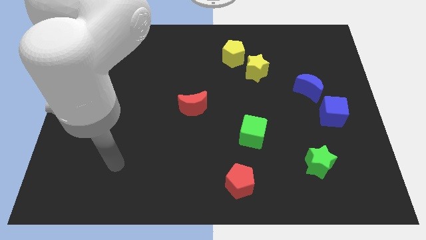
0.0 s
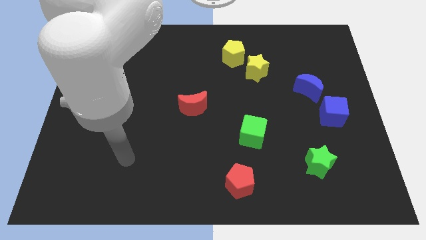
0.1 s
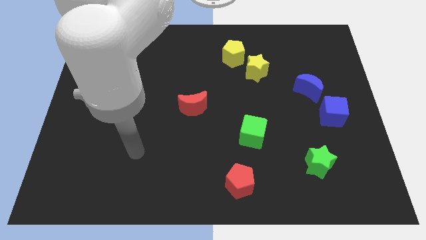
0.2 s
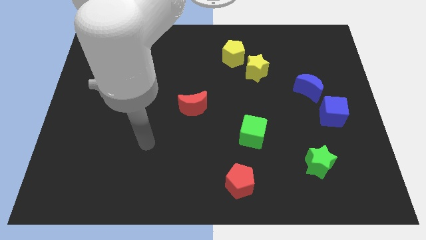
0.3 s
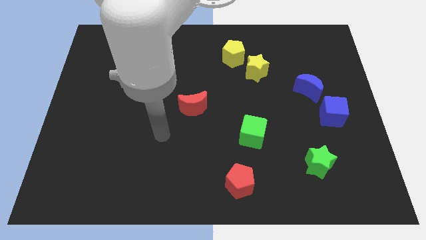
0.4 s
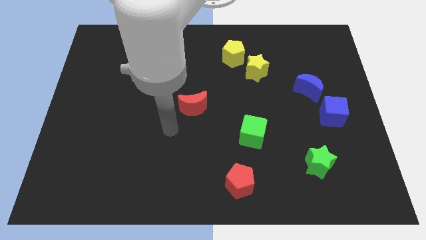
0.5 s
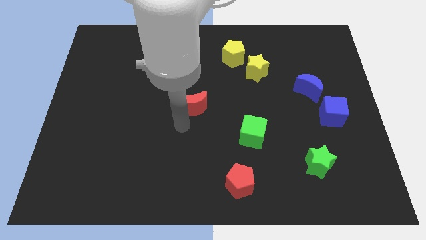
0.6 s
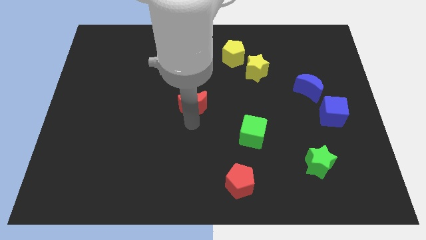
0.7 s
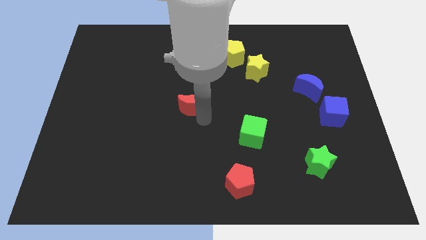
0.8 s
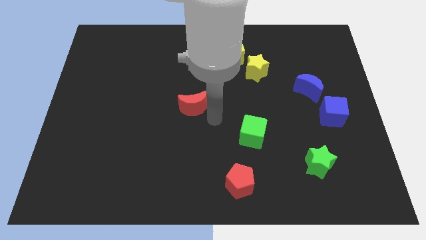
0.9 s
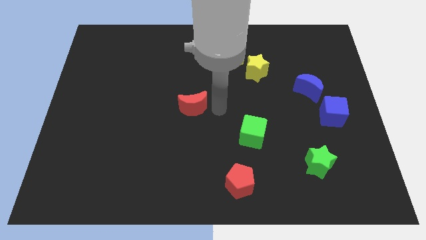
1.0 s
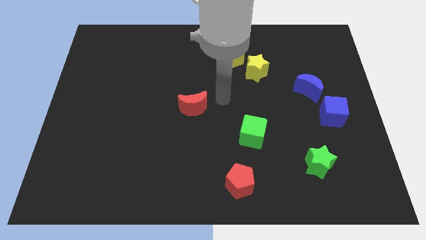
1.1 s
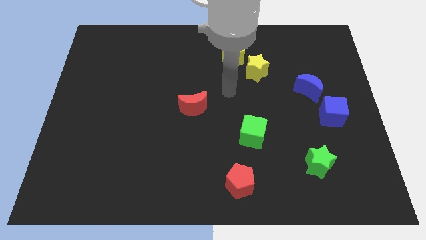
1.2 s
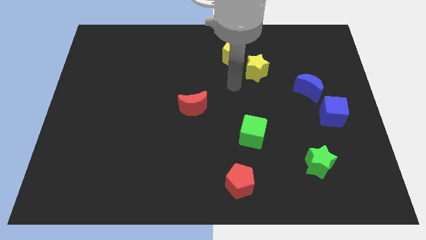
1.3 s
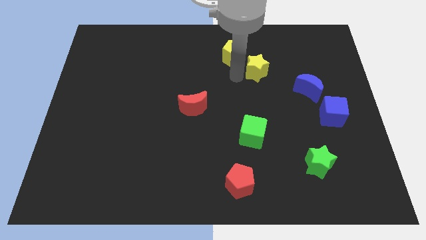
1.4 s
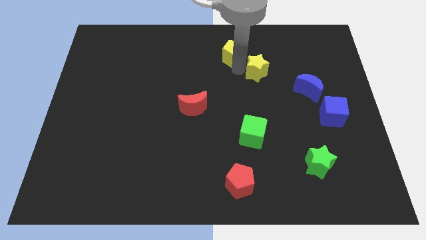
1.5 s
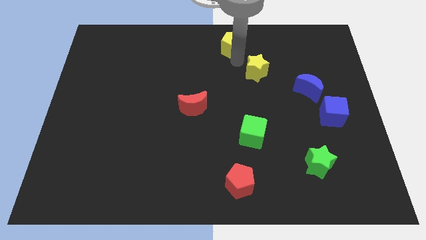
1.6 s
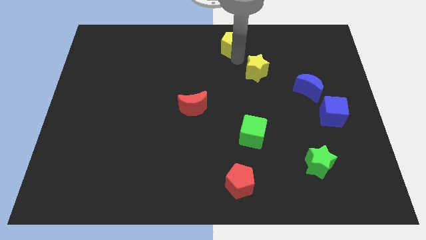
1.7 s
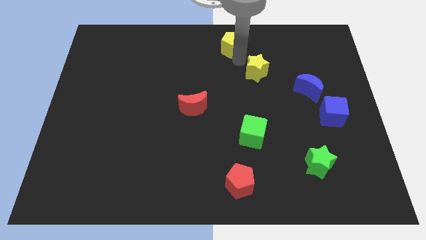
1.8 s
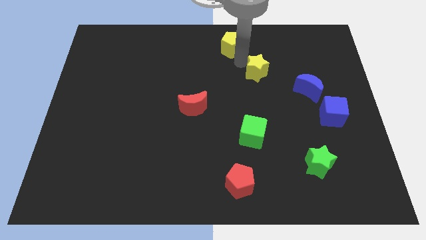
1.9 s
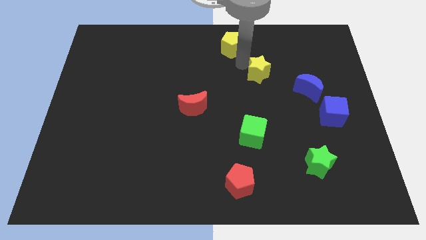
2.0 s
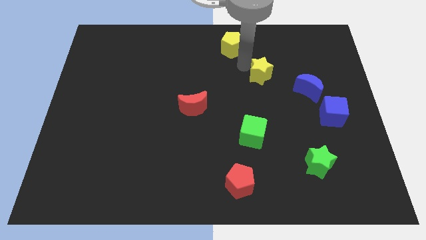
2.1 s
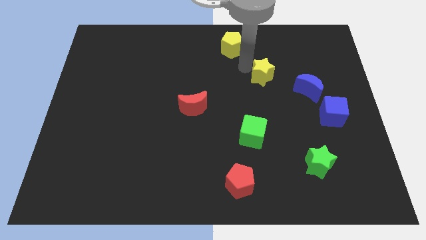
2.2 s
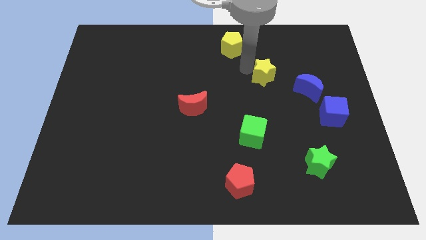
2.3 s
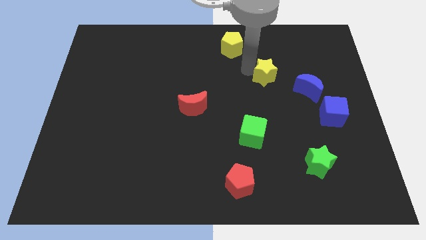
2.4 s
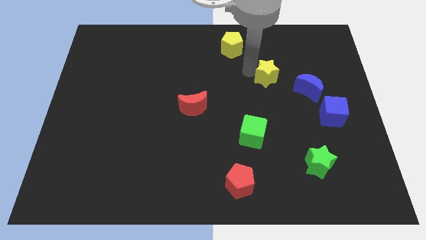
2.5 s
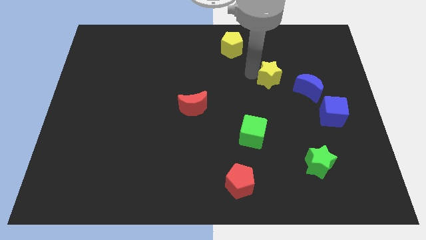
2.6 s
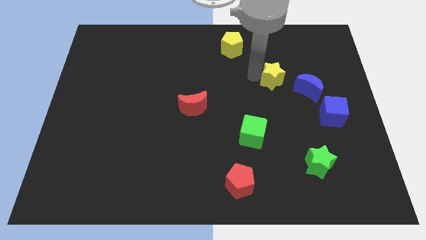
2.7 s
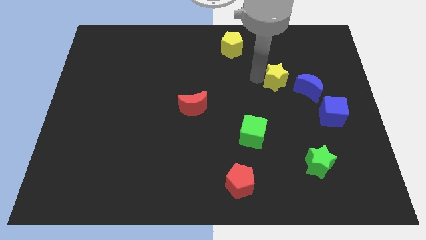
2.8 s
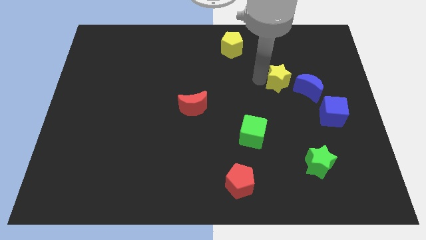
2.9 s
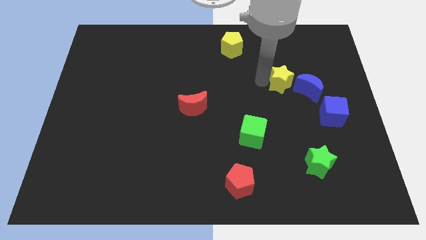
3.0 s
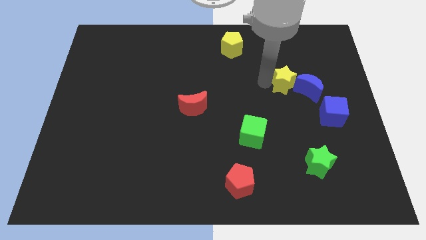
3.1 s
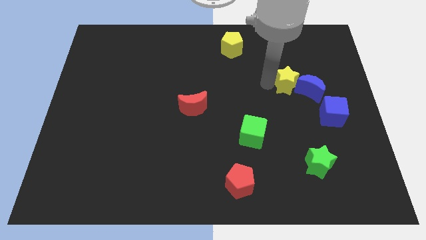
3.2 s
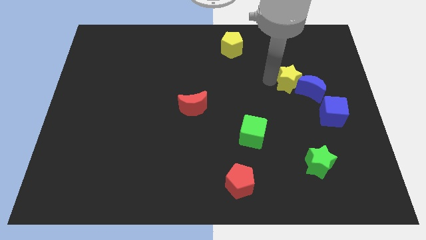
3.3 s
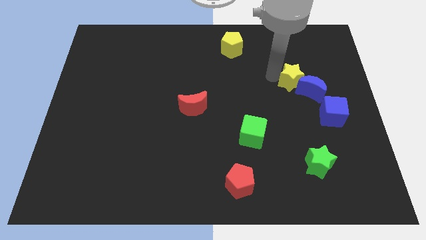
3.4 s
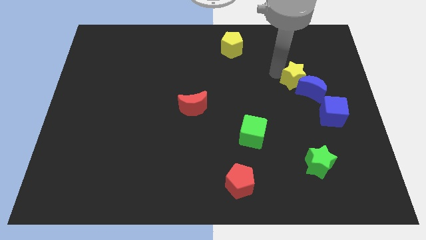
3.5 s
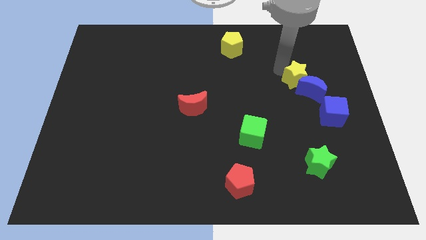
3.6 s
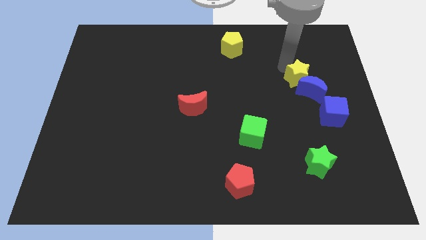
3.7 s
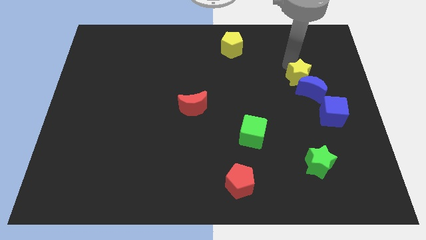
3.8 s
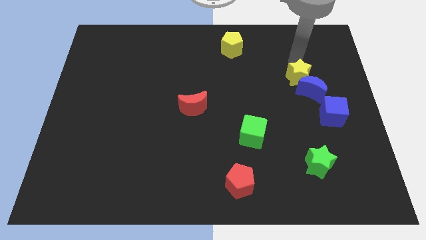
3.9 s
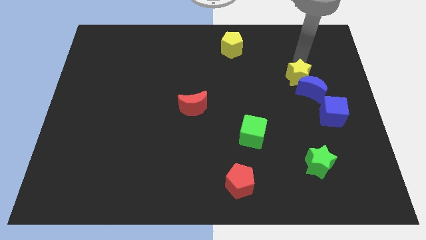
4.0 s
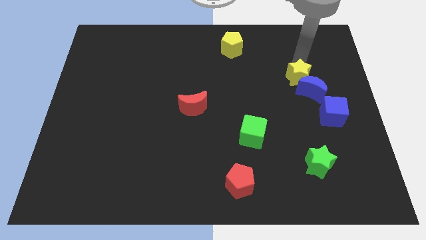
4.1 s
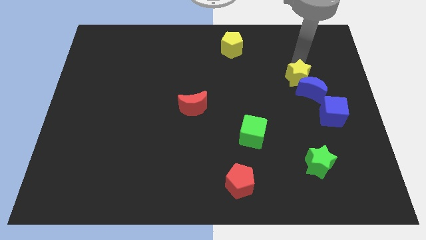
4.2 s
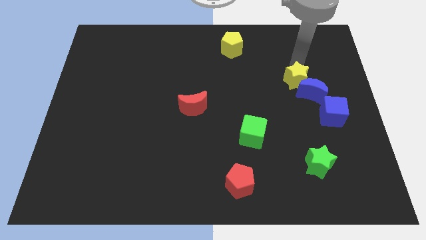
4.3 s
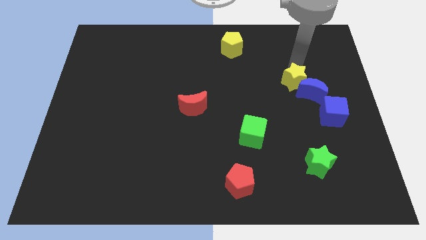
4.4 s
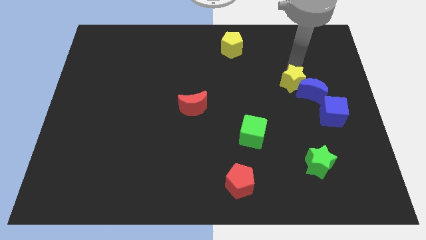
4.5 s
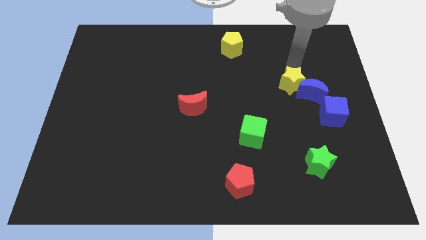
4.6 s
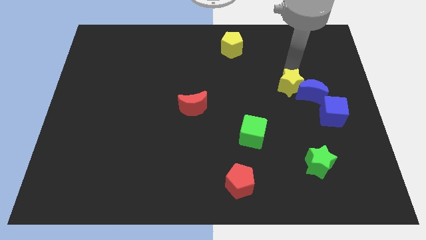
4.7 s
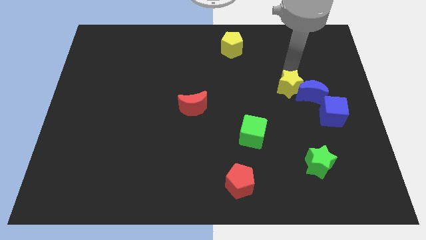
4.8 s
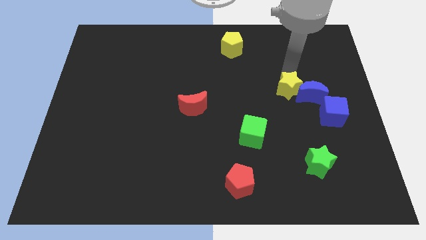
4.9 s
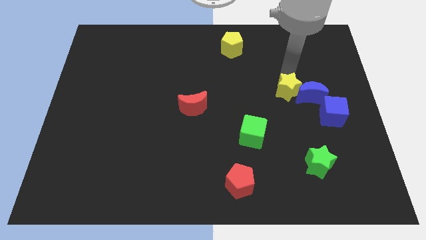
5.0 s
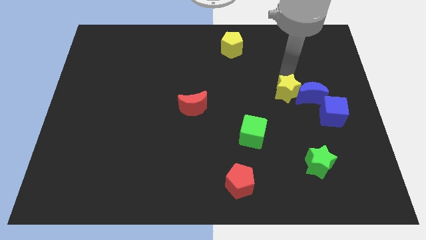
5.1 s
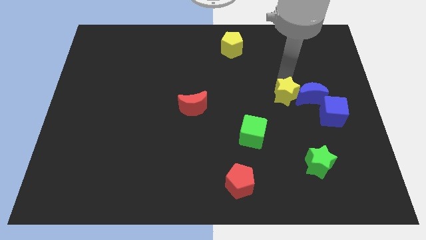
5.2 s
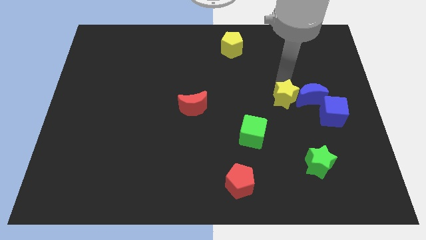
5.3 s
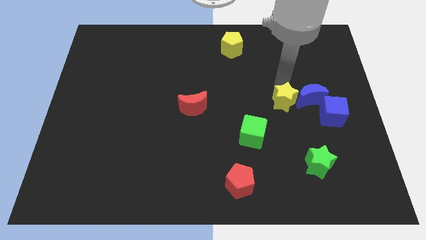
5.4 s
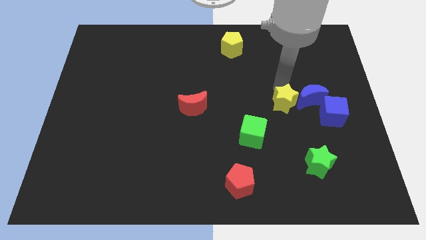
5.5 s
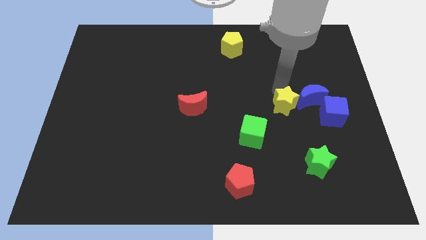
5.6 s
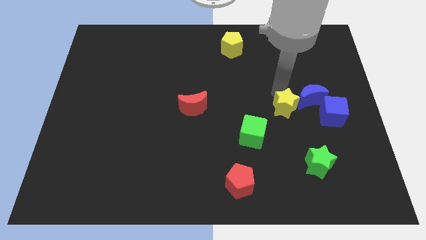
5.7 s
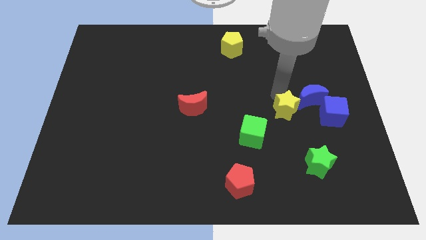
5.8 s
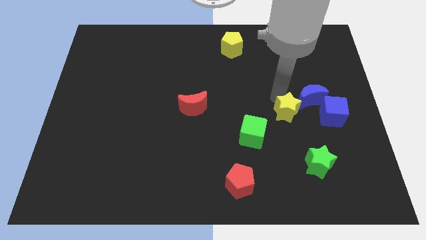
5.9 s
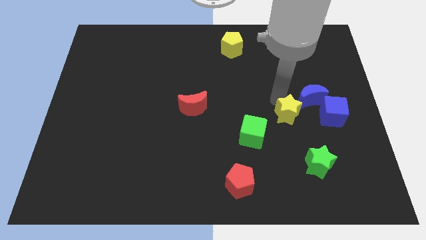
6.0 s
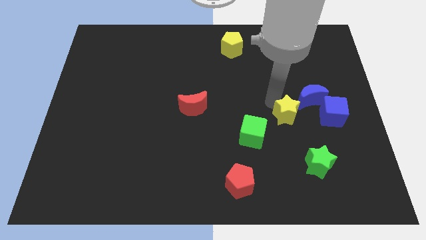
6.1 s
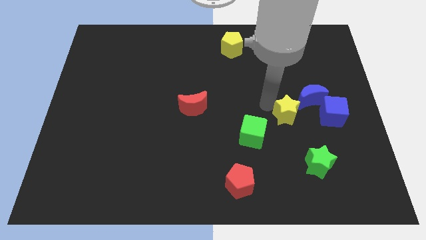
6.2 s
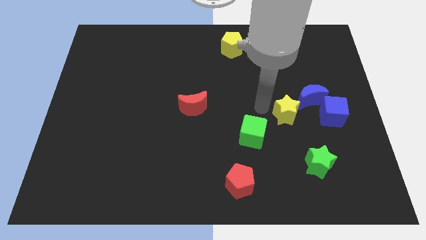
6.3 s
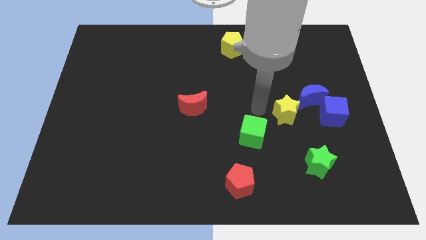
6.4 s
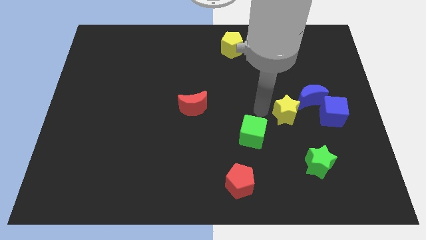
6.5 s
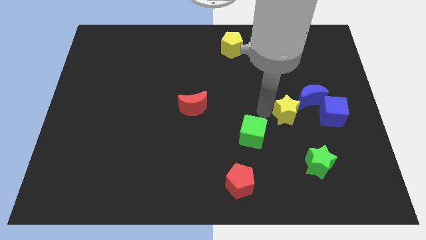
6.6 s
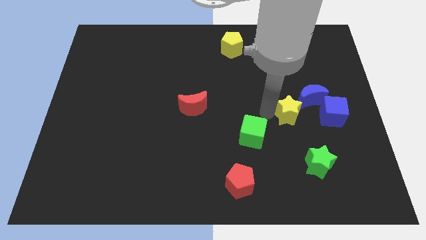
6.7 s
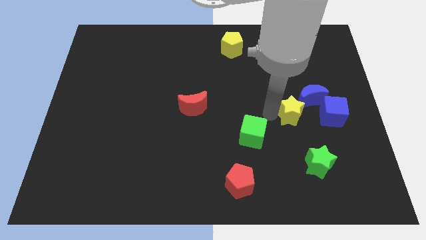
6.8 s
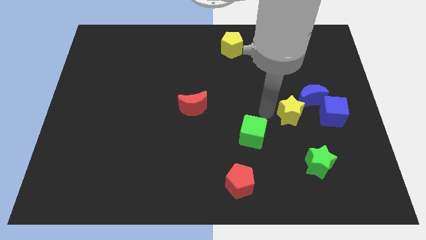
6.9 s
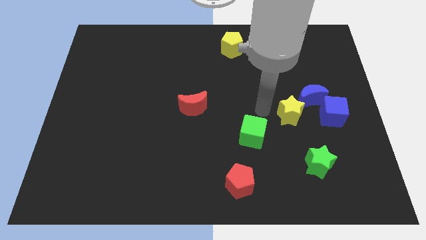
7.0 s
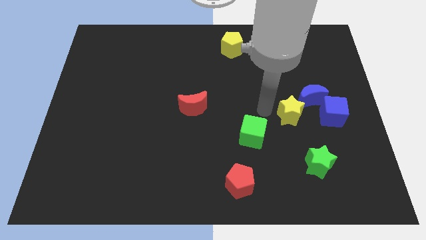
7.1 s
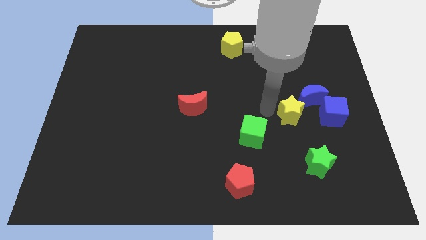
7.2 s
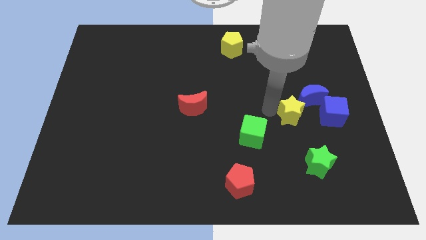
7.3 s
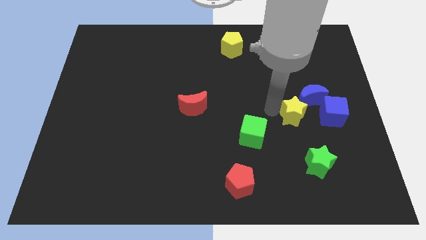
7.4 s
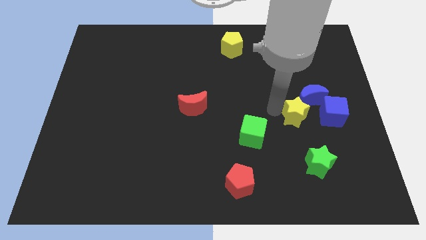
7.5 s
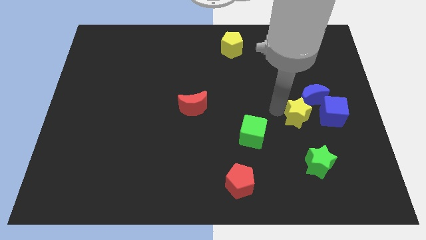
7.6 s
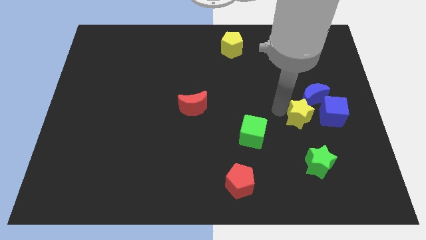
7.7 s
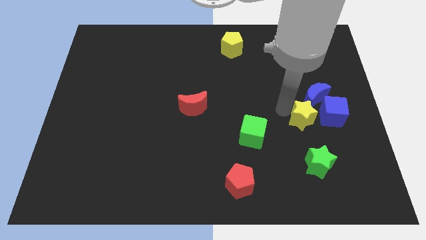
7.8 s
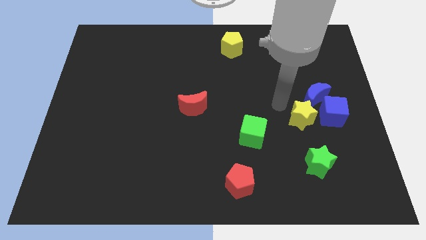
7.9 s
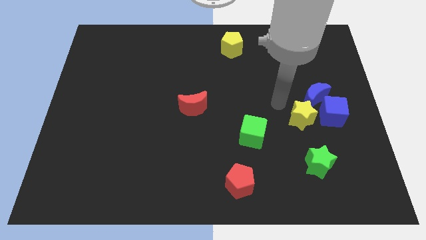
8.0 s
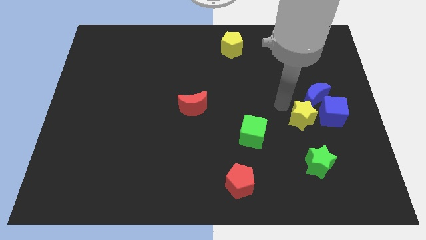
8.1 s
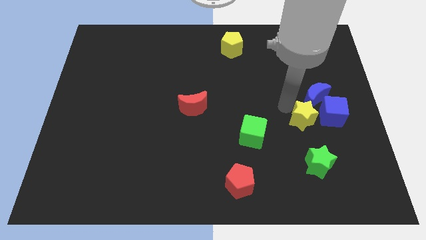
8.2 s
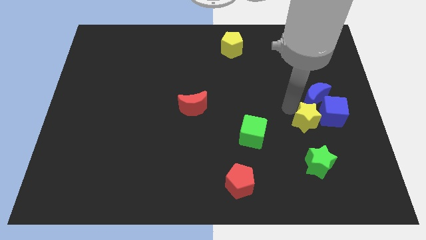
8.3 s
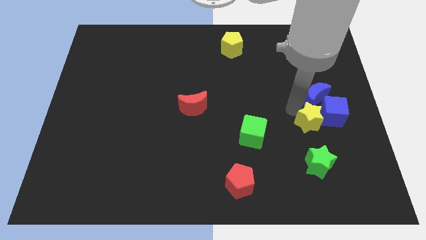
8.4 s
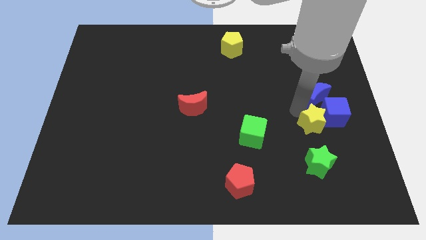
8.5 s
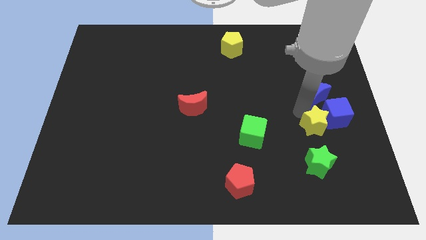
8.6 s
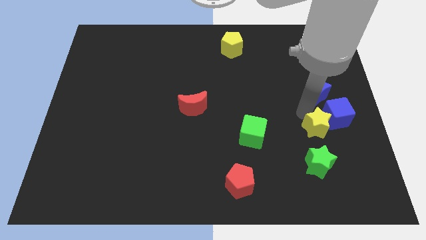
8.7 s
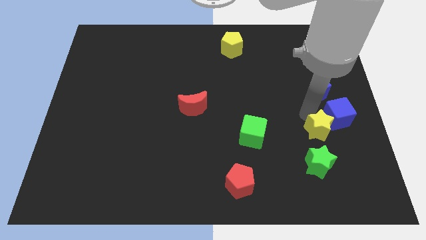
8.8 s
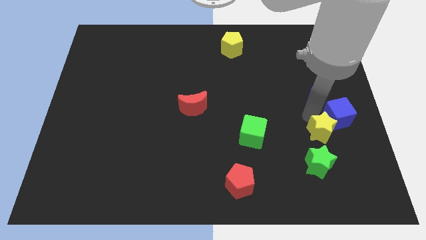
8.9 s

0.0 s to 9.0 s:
slide the yellow star to the top right side of the green star
